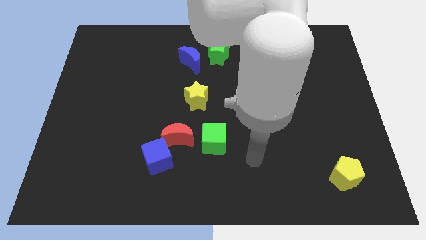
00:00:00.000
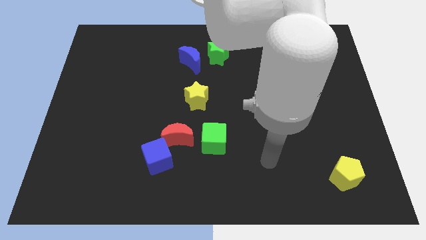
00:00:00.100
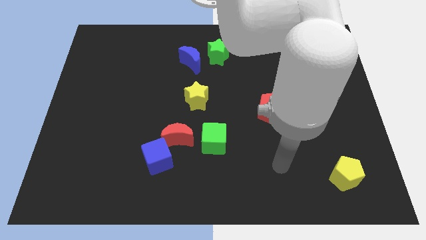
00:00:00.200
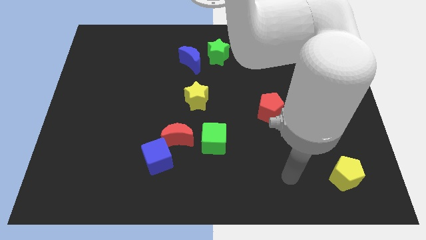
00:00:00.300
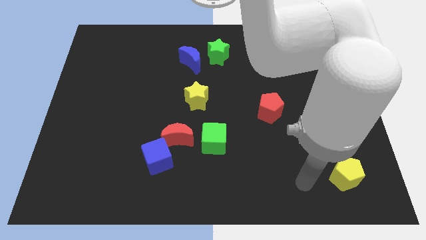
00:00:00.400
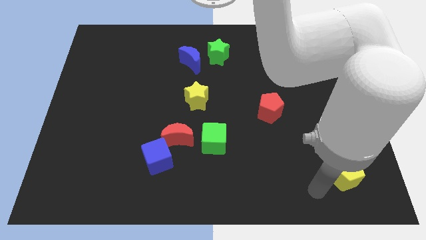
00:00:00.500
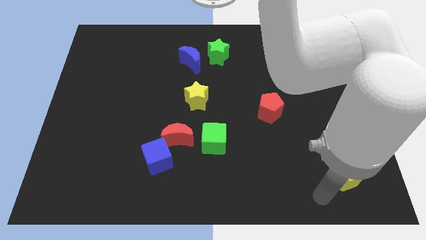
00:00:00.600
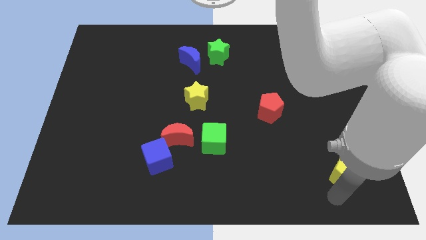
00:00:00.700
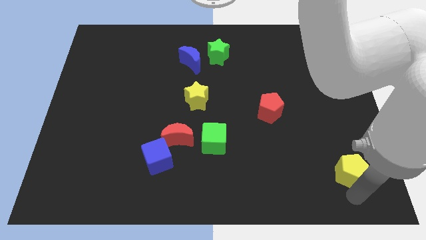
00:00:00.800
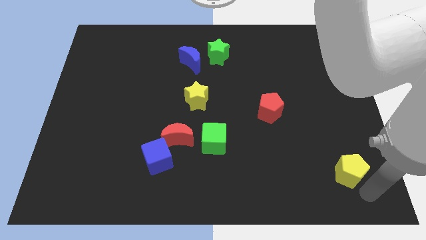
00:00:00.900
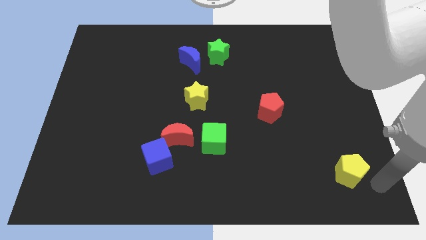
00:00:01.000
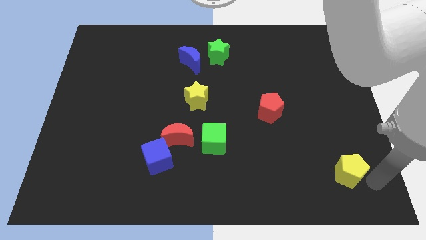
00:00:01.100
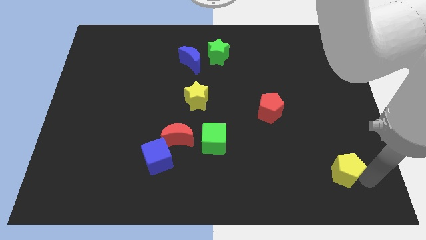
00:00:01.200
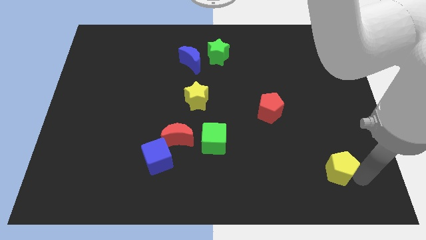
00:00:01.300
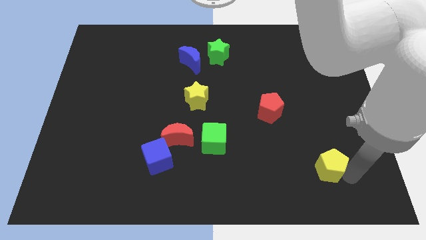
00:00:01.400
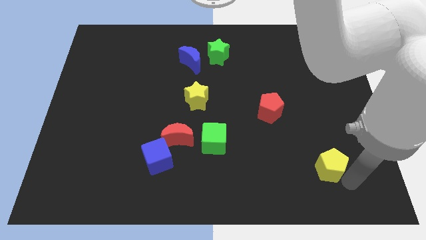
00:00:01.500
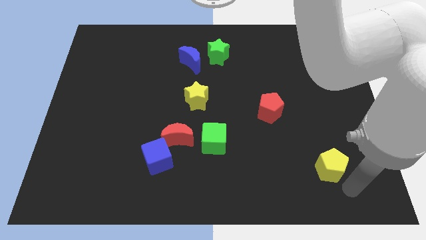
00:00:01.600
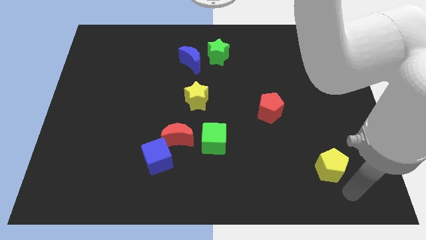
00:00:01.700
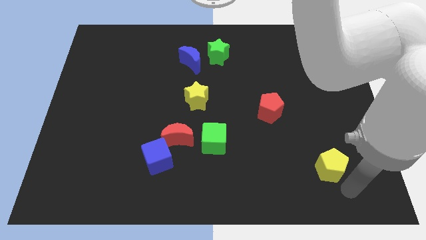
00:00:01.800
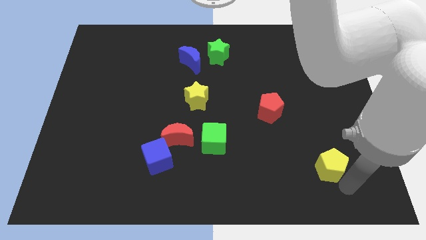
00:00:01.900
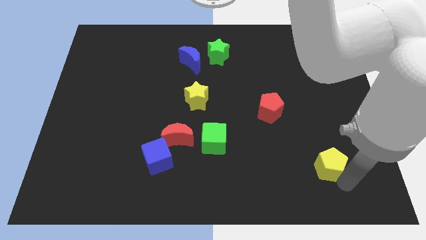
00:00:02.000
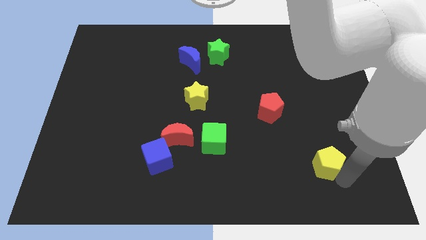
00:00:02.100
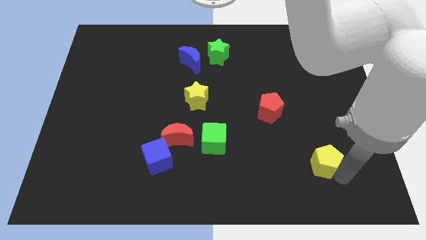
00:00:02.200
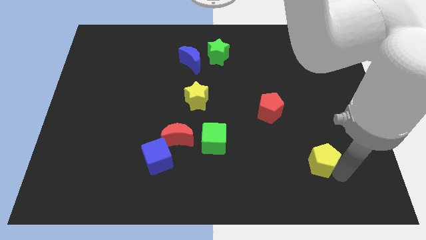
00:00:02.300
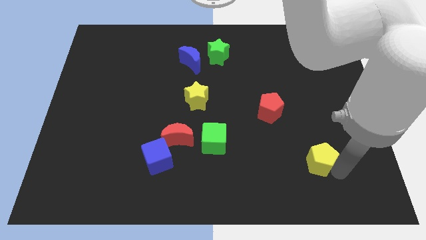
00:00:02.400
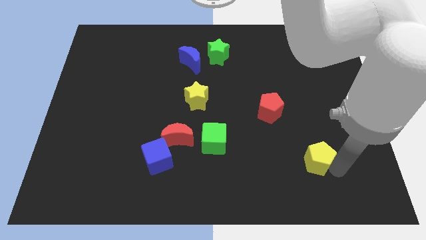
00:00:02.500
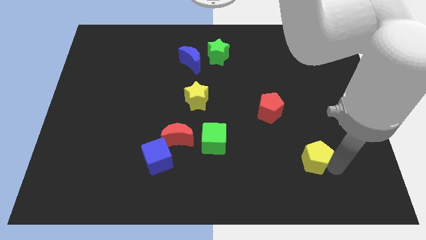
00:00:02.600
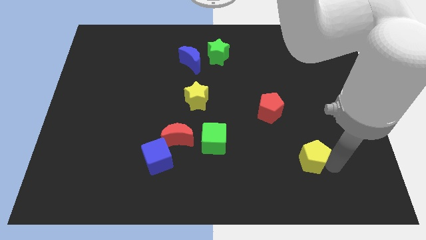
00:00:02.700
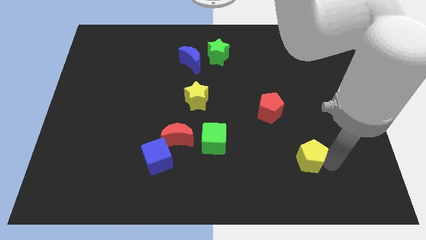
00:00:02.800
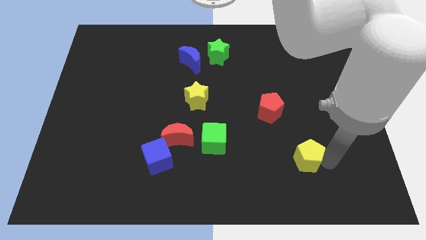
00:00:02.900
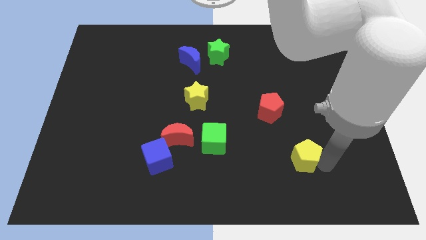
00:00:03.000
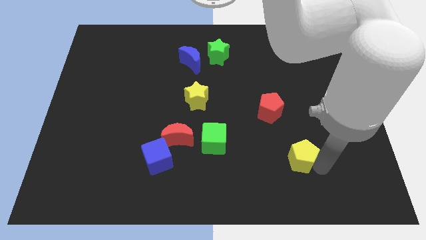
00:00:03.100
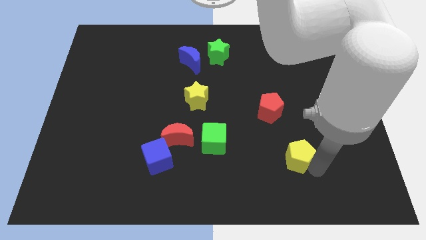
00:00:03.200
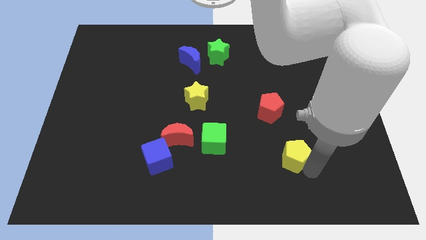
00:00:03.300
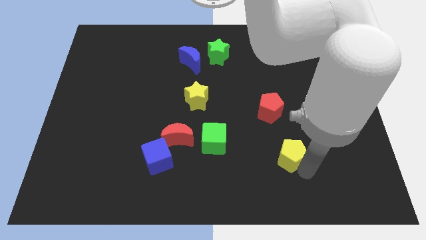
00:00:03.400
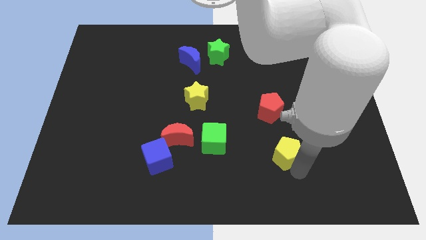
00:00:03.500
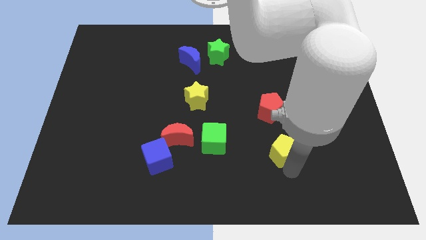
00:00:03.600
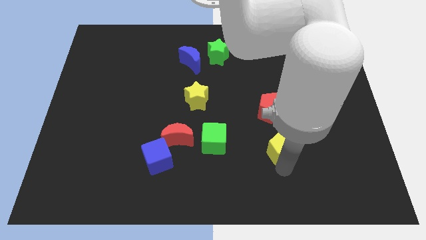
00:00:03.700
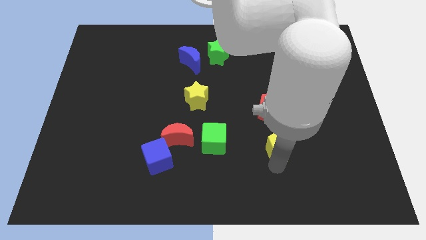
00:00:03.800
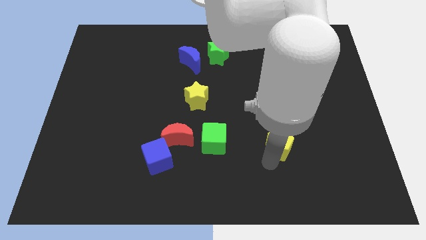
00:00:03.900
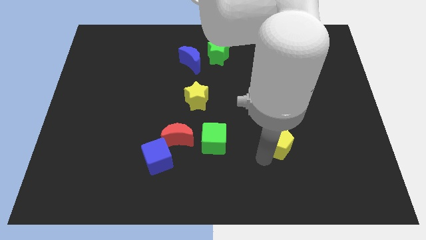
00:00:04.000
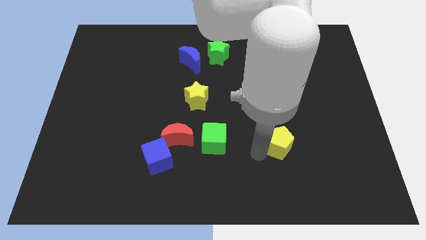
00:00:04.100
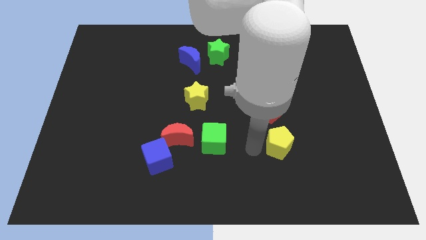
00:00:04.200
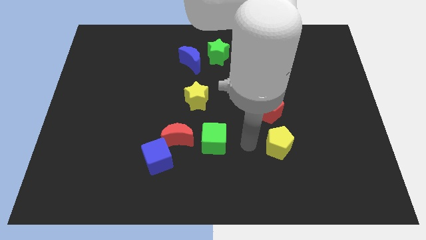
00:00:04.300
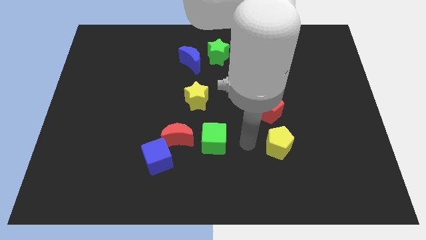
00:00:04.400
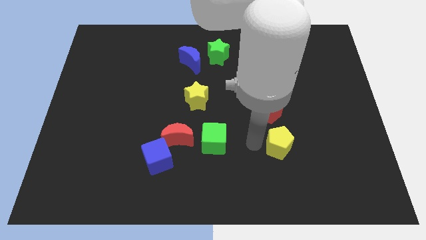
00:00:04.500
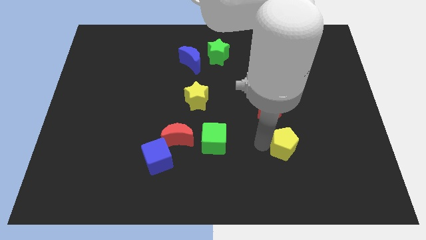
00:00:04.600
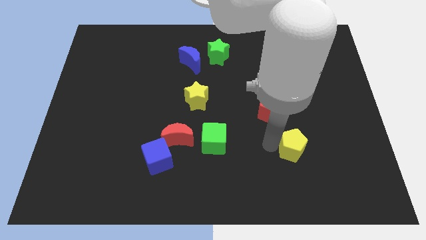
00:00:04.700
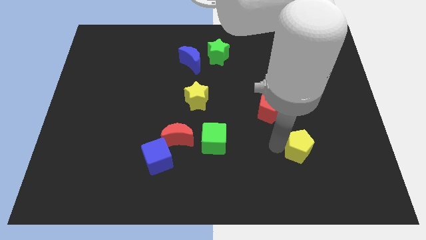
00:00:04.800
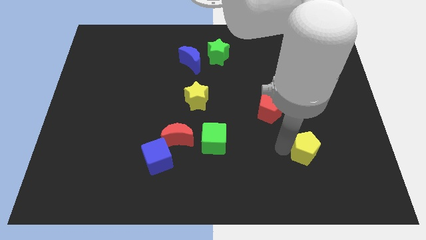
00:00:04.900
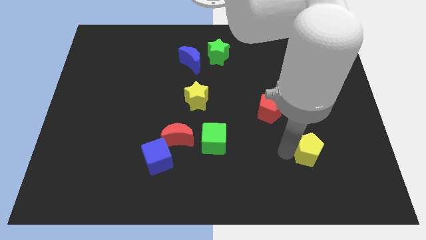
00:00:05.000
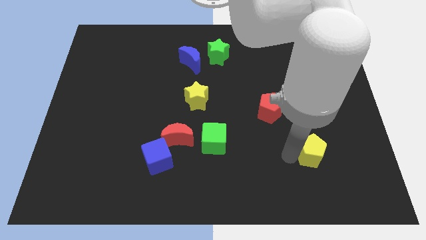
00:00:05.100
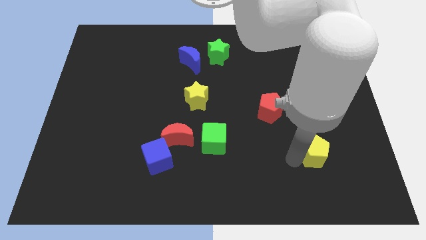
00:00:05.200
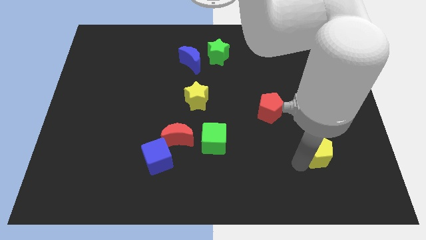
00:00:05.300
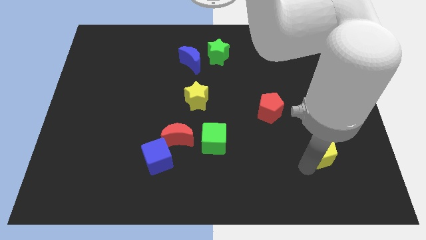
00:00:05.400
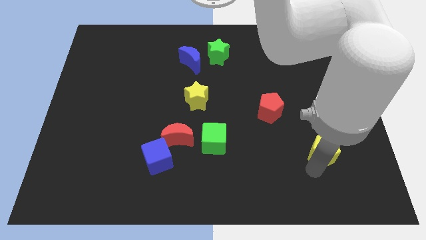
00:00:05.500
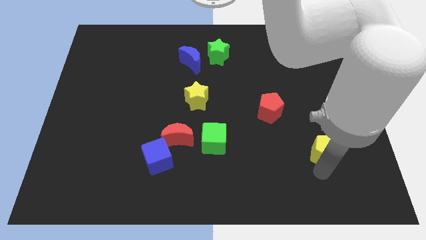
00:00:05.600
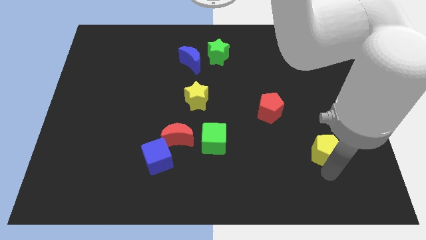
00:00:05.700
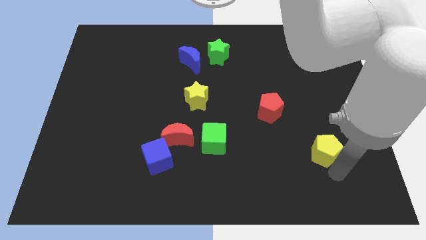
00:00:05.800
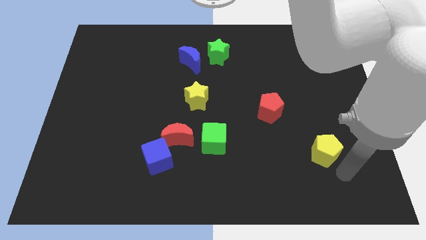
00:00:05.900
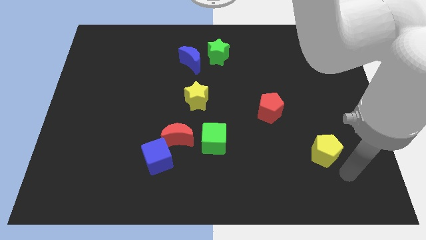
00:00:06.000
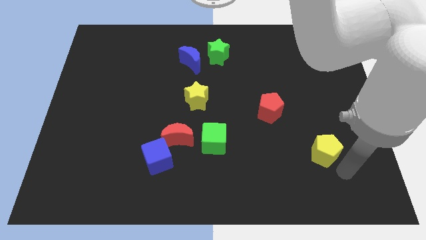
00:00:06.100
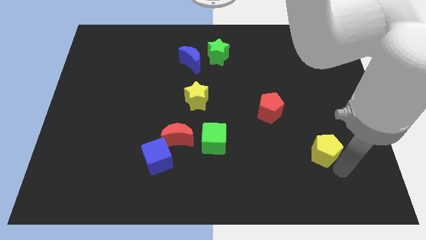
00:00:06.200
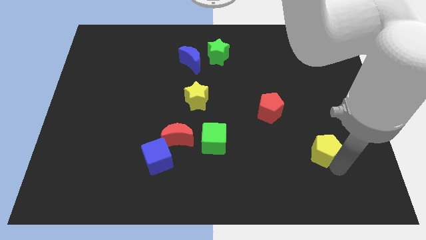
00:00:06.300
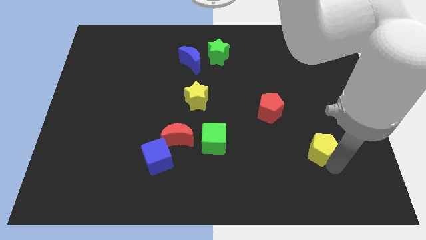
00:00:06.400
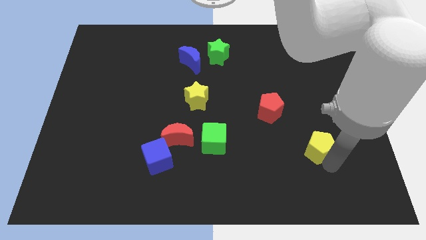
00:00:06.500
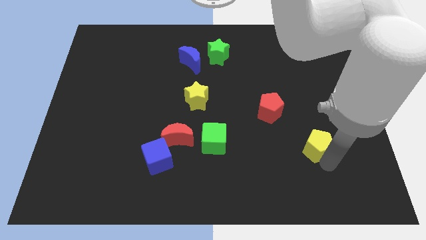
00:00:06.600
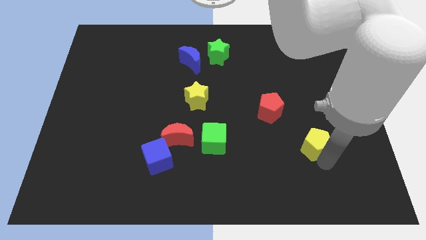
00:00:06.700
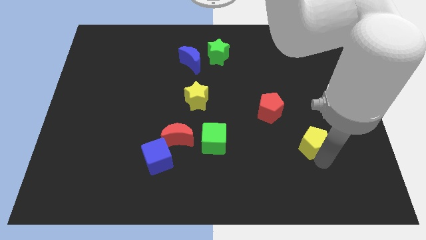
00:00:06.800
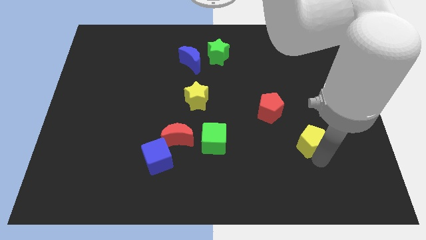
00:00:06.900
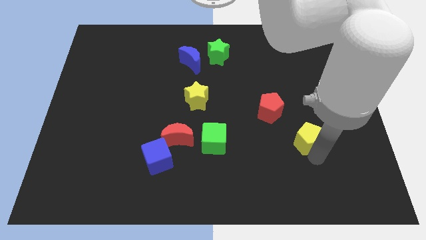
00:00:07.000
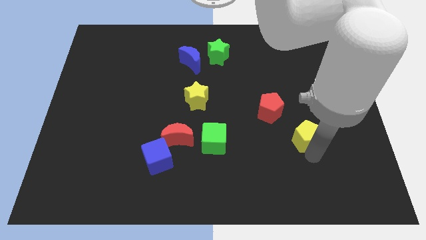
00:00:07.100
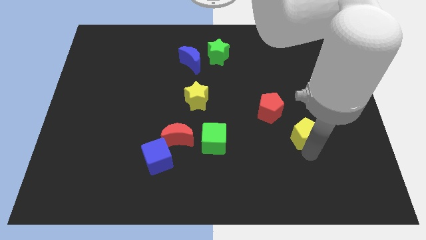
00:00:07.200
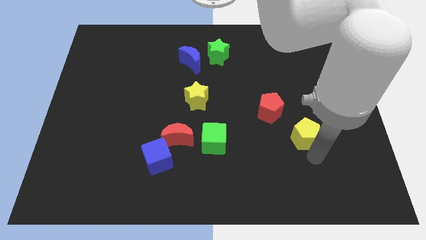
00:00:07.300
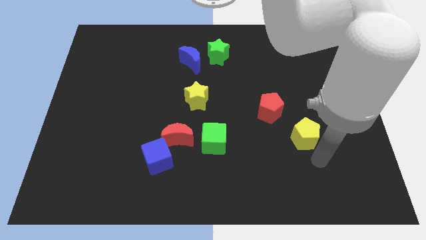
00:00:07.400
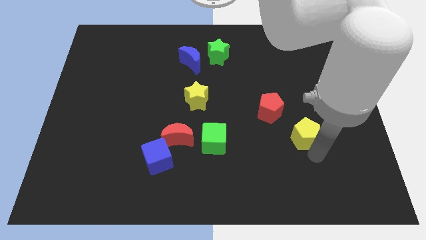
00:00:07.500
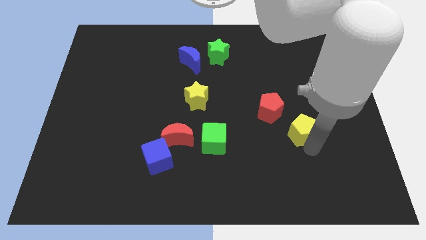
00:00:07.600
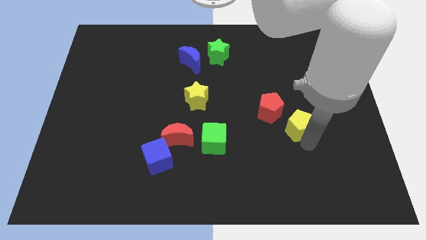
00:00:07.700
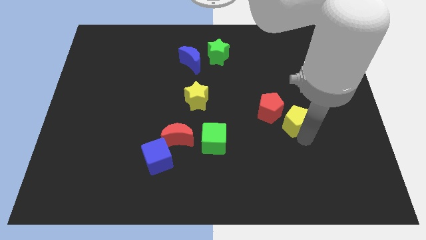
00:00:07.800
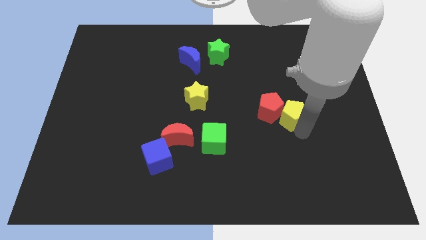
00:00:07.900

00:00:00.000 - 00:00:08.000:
push the yellow pentagon next to the red pentagon
